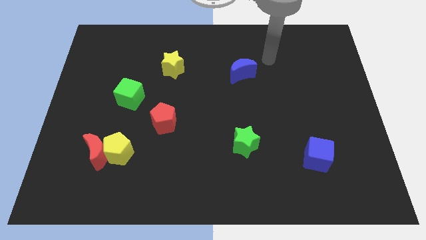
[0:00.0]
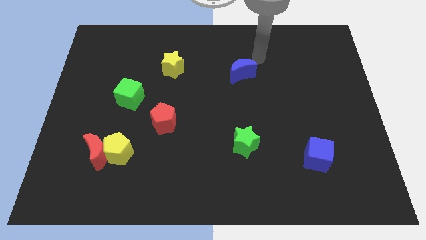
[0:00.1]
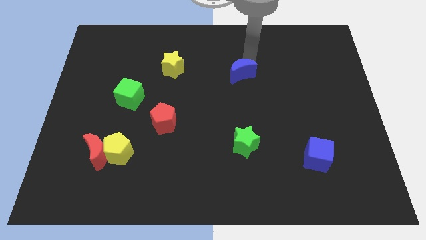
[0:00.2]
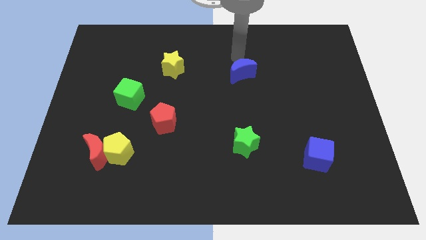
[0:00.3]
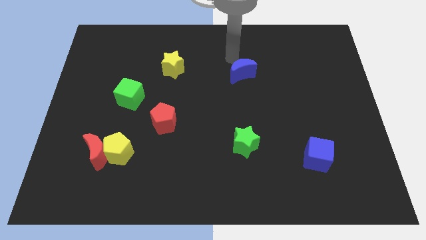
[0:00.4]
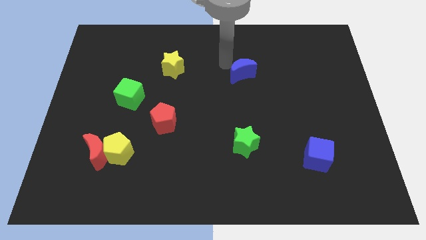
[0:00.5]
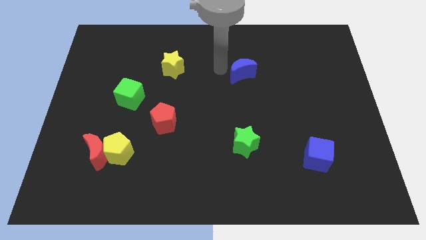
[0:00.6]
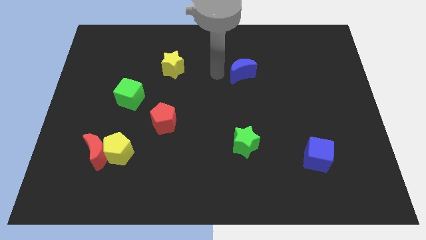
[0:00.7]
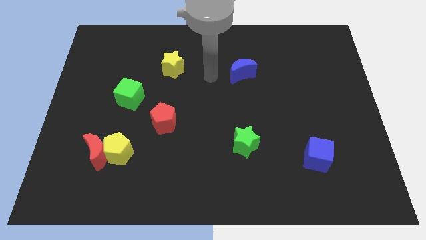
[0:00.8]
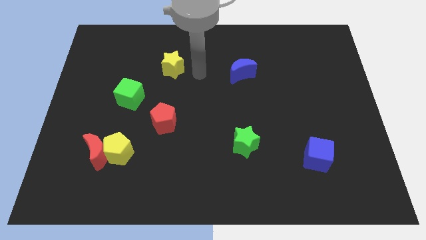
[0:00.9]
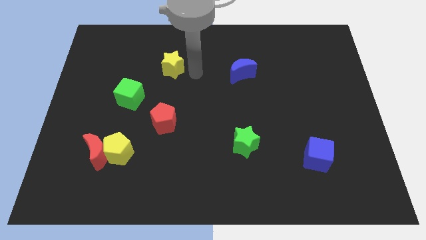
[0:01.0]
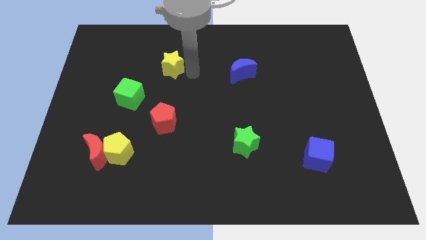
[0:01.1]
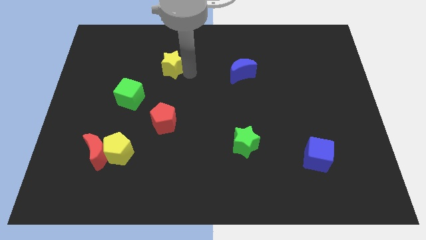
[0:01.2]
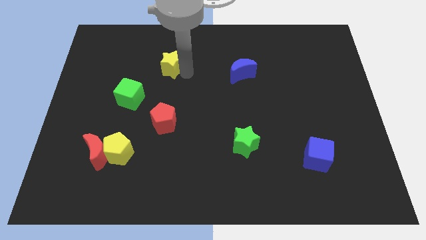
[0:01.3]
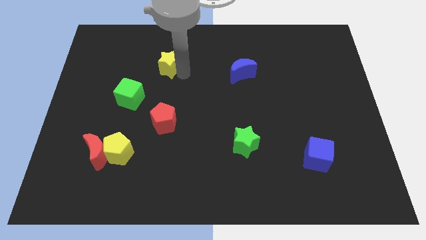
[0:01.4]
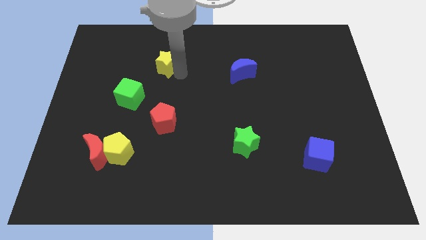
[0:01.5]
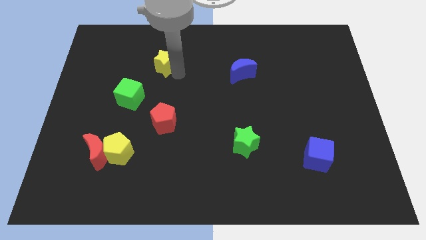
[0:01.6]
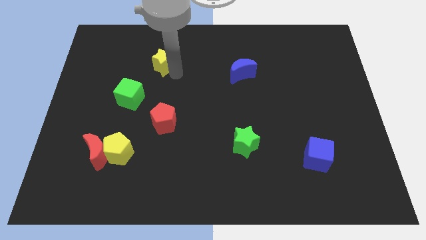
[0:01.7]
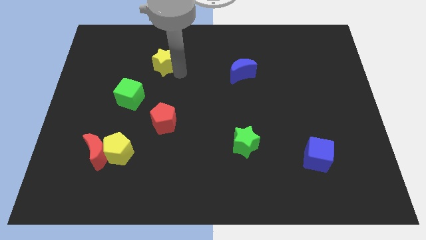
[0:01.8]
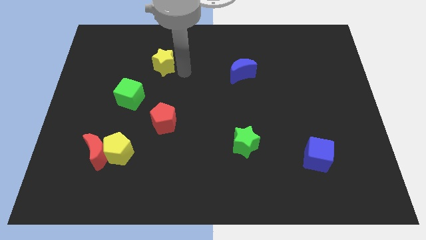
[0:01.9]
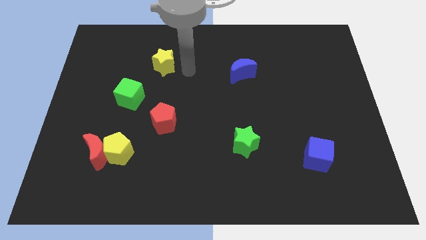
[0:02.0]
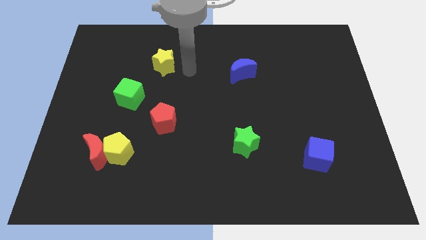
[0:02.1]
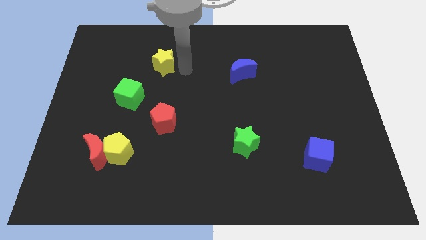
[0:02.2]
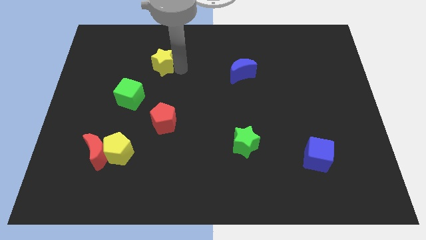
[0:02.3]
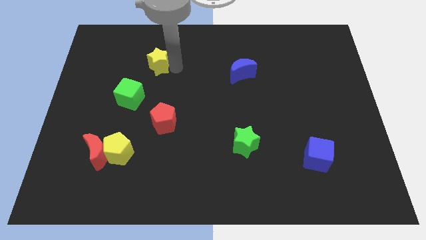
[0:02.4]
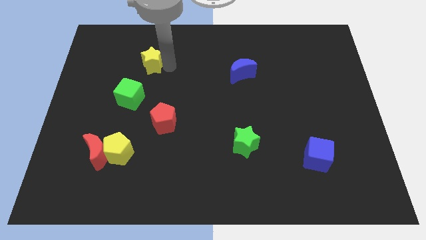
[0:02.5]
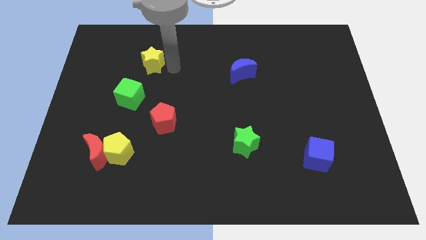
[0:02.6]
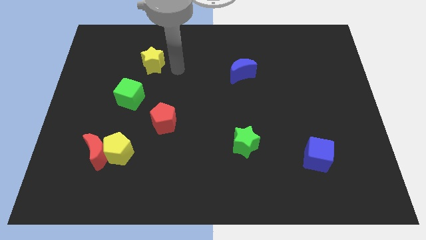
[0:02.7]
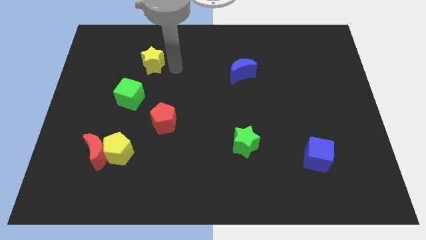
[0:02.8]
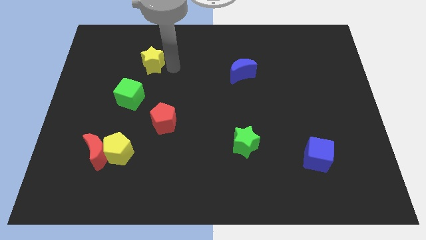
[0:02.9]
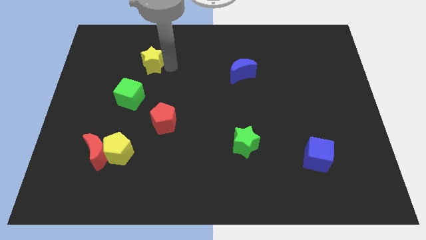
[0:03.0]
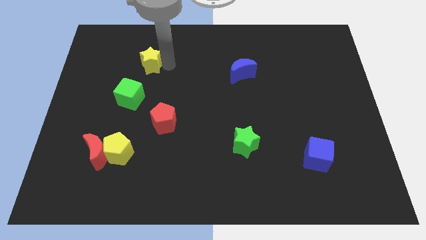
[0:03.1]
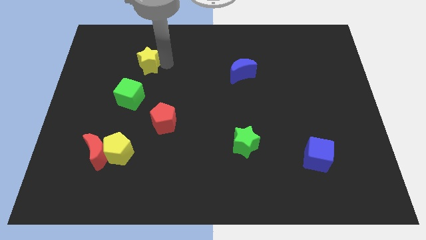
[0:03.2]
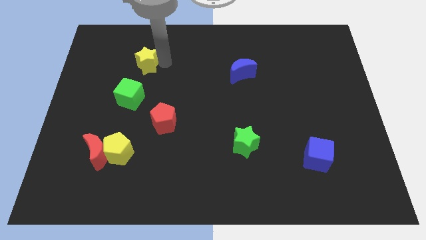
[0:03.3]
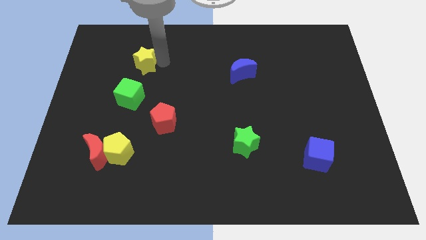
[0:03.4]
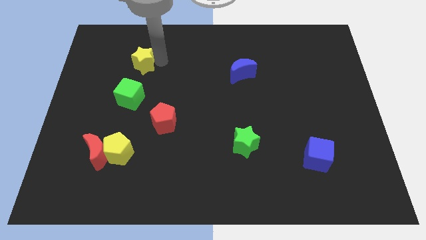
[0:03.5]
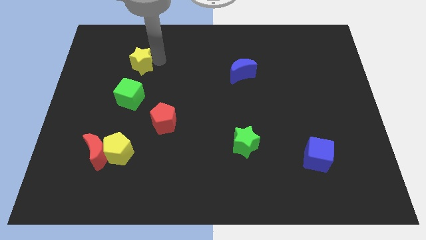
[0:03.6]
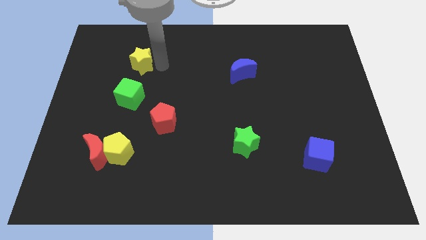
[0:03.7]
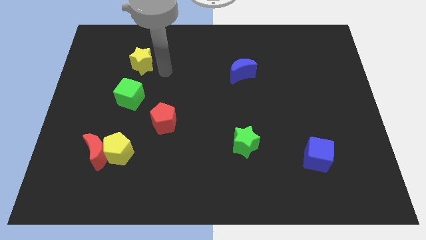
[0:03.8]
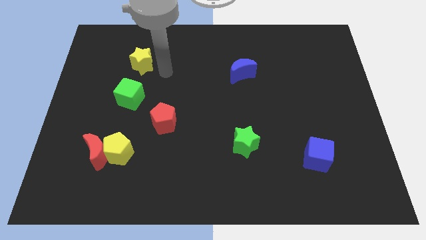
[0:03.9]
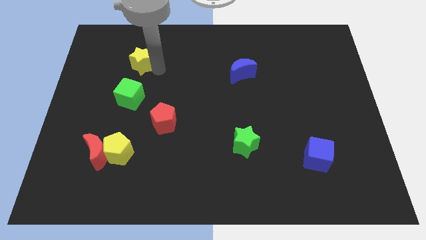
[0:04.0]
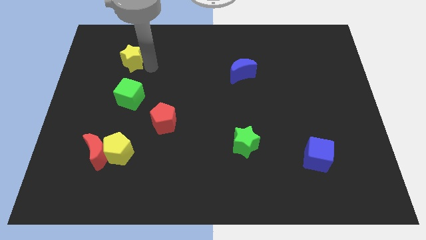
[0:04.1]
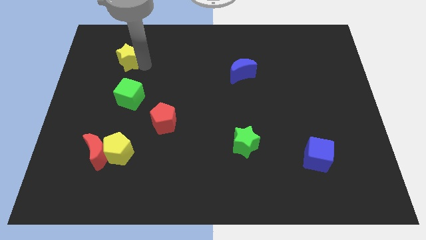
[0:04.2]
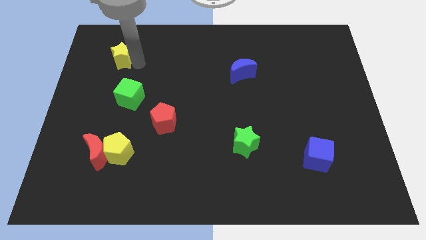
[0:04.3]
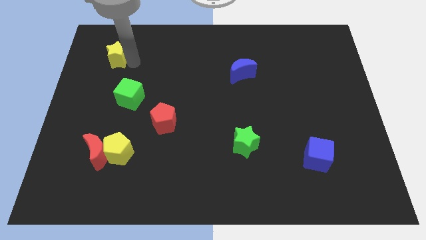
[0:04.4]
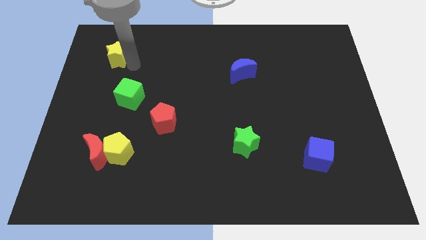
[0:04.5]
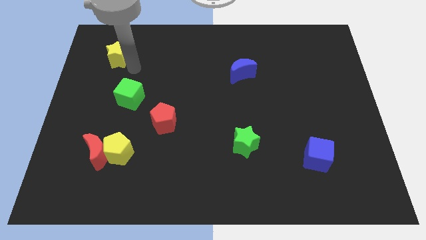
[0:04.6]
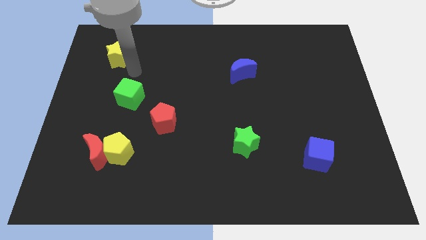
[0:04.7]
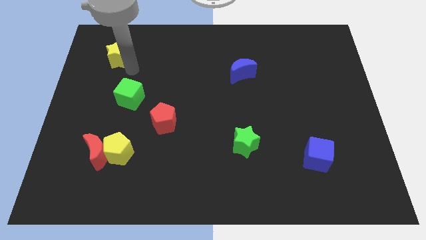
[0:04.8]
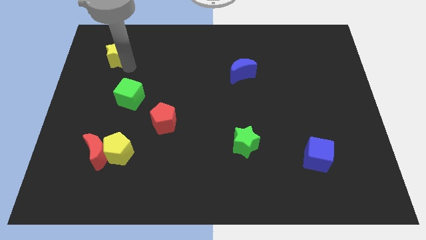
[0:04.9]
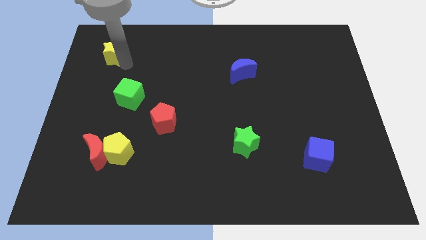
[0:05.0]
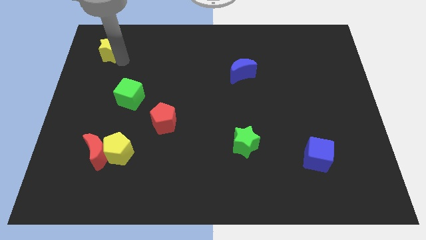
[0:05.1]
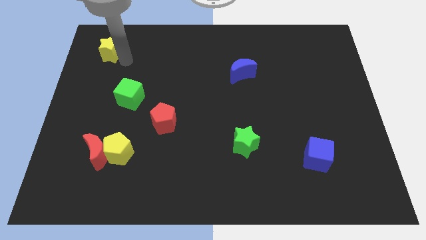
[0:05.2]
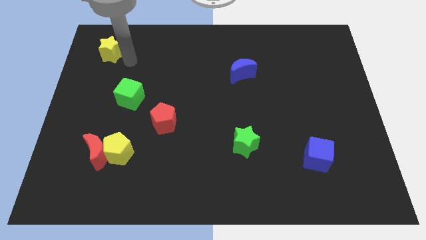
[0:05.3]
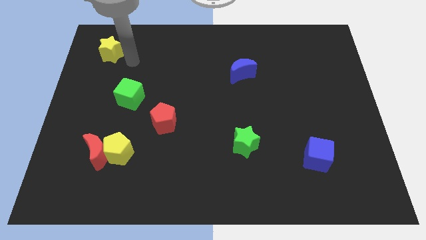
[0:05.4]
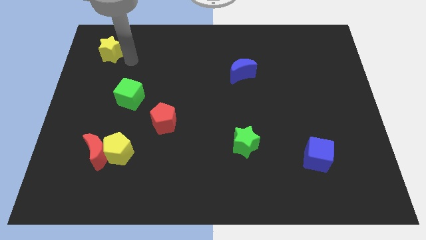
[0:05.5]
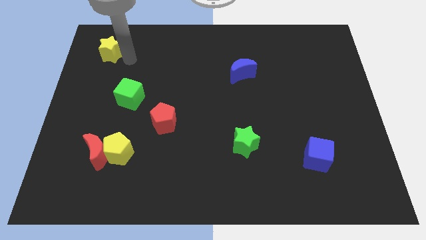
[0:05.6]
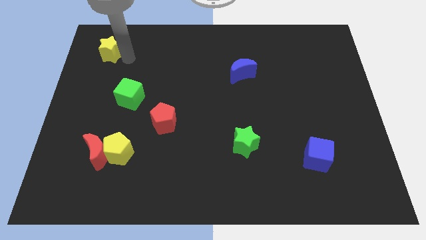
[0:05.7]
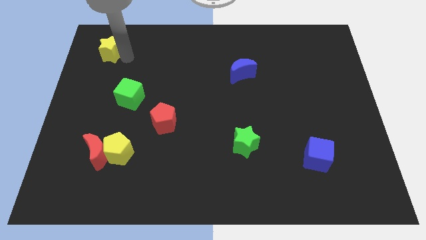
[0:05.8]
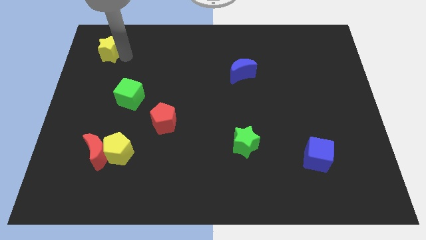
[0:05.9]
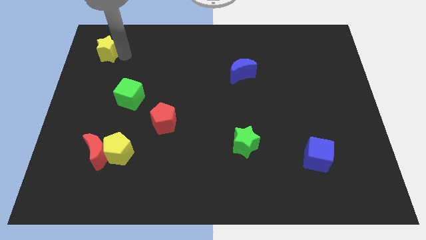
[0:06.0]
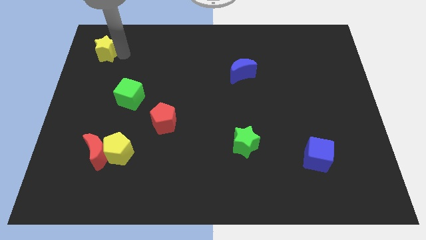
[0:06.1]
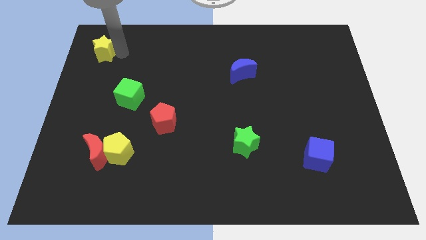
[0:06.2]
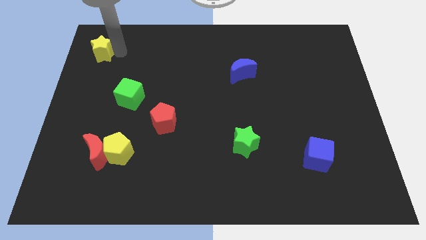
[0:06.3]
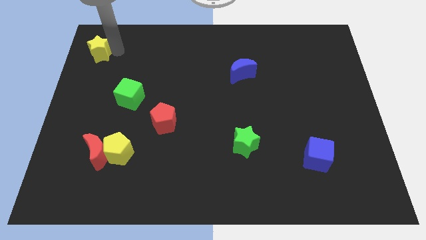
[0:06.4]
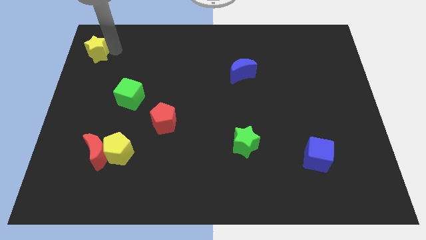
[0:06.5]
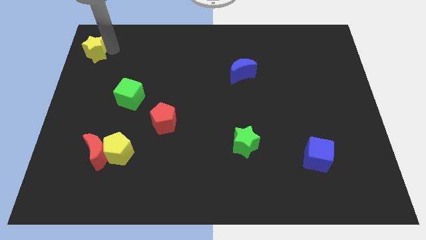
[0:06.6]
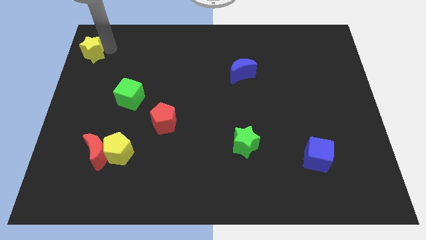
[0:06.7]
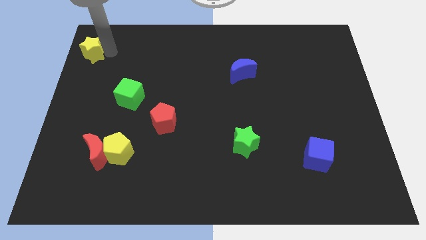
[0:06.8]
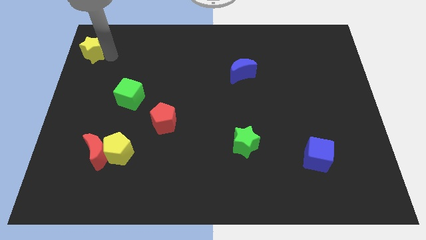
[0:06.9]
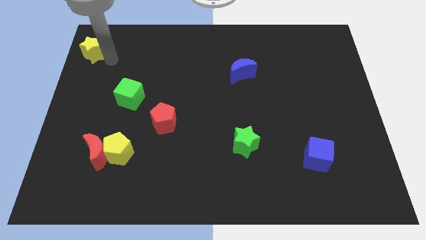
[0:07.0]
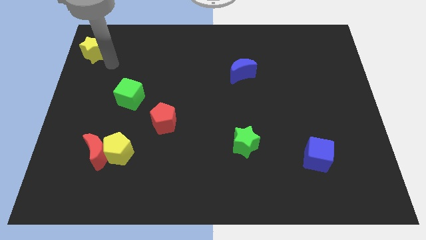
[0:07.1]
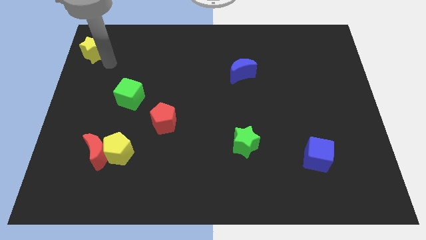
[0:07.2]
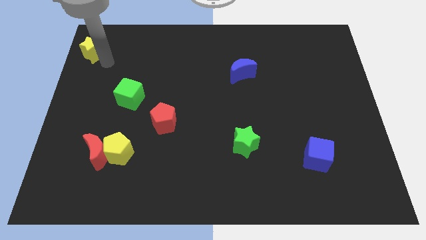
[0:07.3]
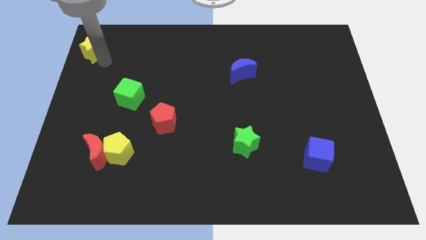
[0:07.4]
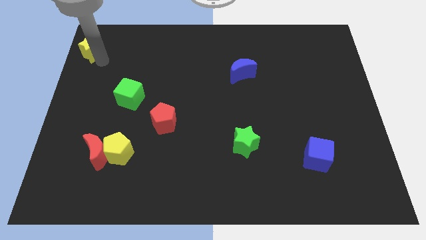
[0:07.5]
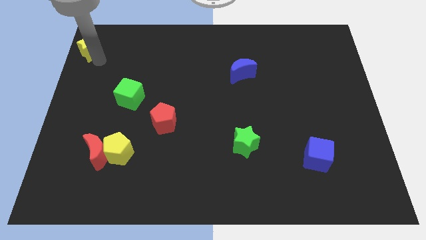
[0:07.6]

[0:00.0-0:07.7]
push the yellow star to the upper left corner
